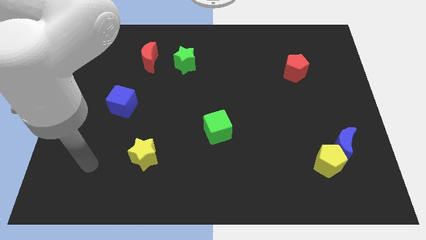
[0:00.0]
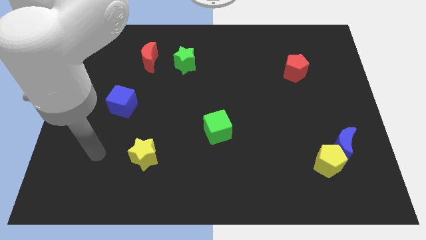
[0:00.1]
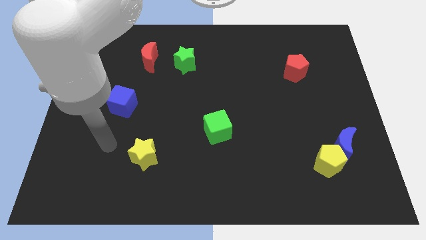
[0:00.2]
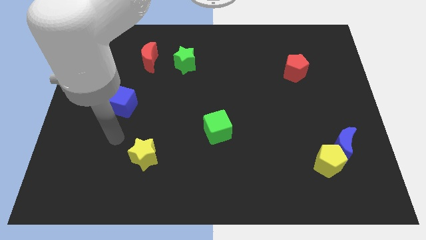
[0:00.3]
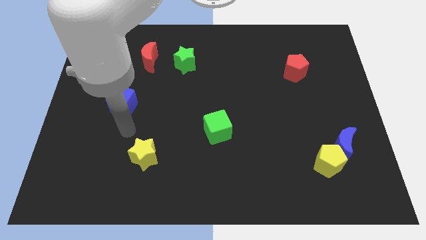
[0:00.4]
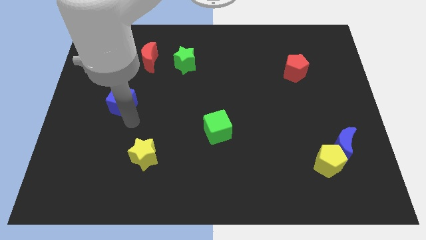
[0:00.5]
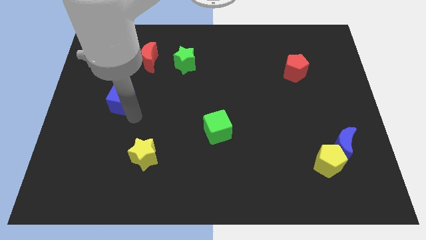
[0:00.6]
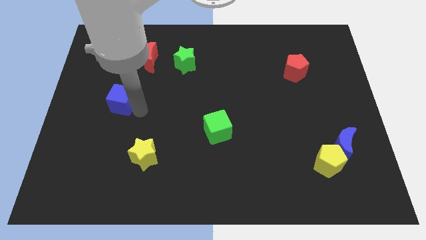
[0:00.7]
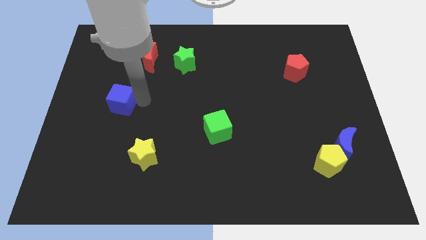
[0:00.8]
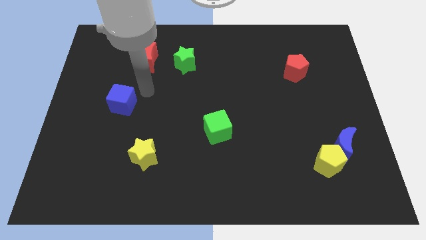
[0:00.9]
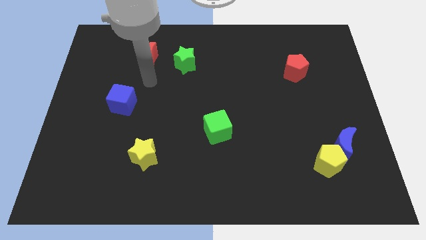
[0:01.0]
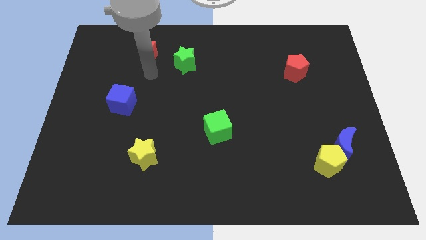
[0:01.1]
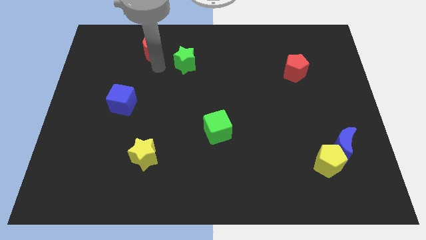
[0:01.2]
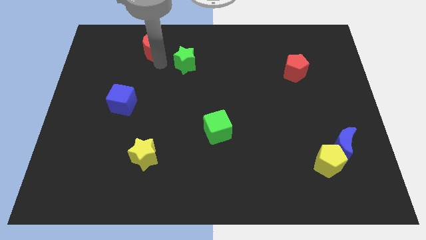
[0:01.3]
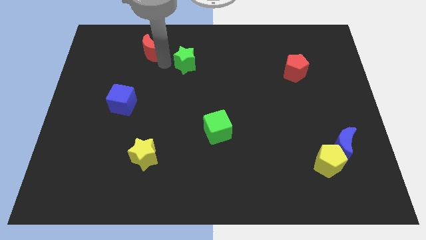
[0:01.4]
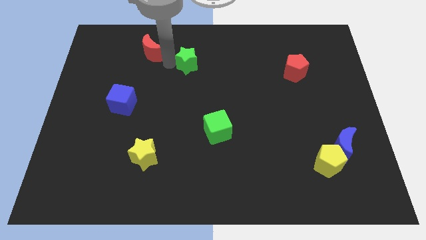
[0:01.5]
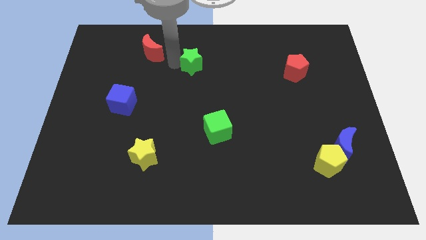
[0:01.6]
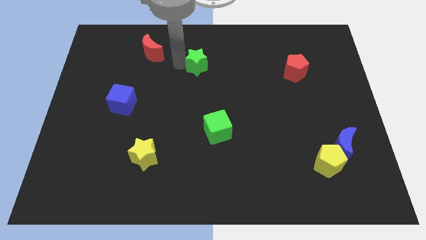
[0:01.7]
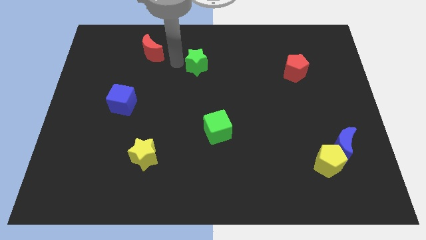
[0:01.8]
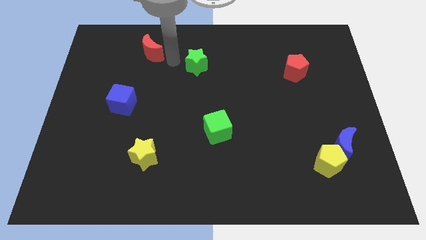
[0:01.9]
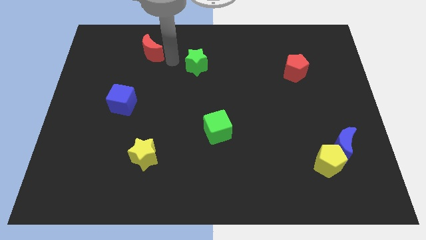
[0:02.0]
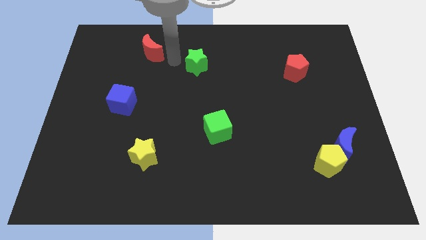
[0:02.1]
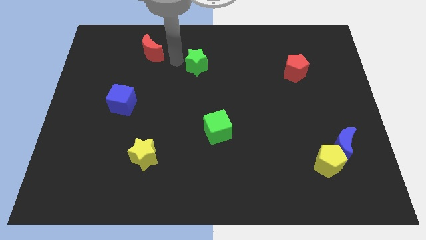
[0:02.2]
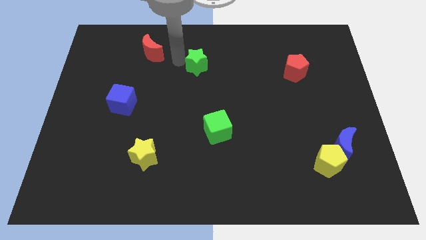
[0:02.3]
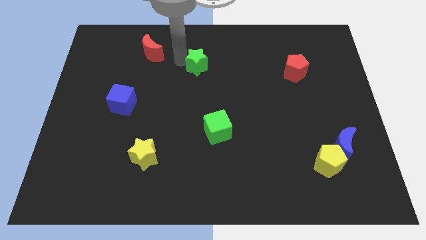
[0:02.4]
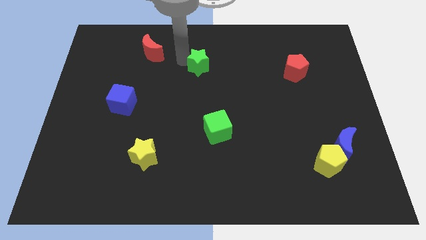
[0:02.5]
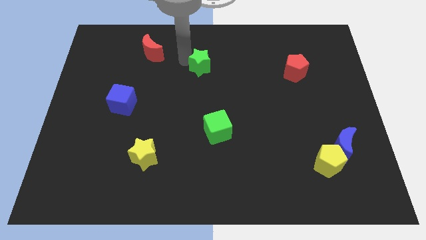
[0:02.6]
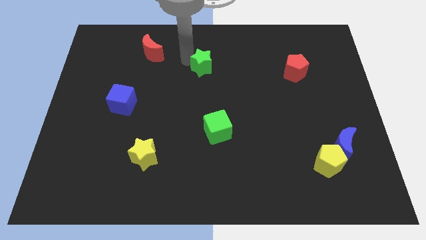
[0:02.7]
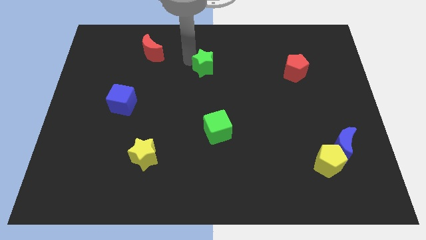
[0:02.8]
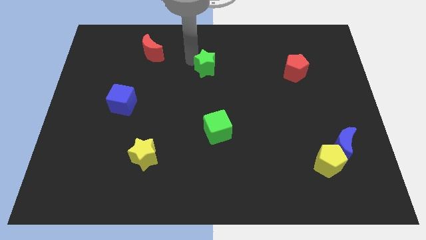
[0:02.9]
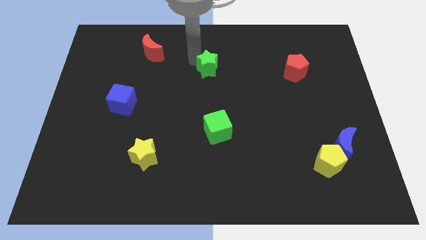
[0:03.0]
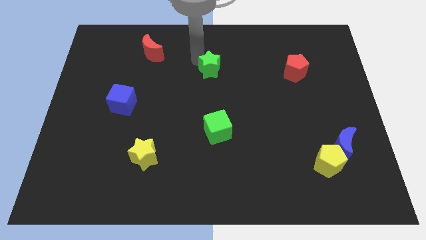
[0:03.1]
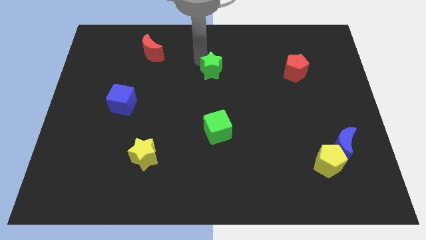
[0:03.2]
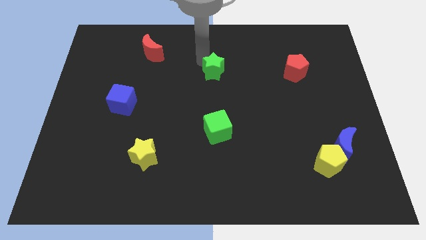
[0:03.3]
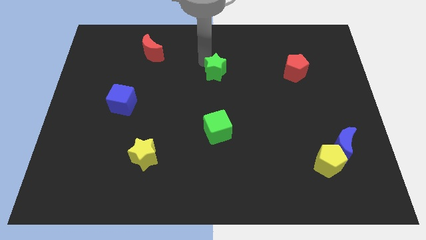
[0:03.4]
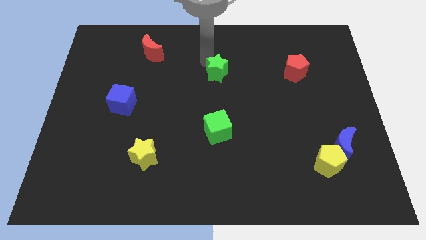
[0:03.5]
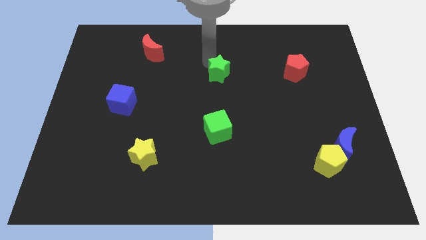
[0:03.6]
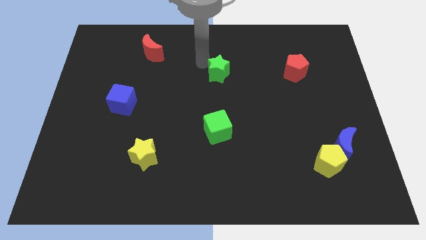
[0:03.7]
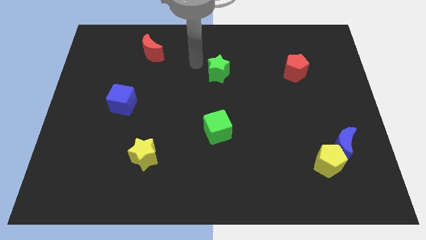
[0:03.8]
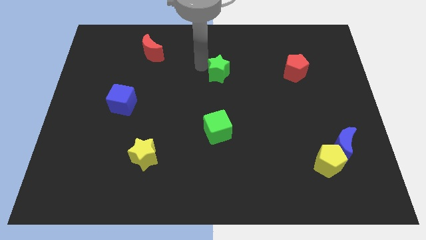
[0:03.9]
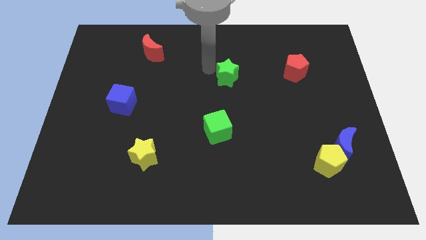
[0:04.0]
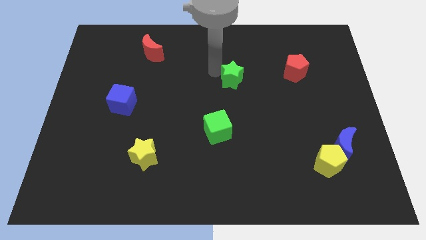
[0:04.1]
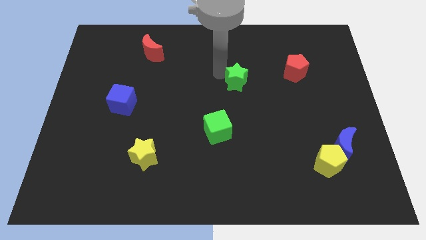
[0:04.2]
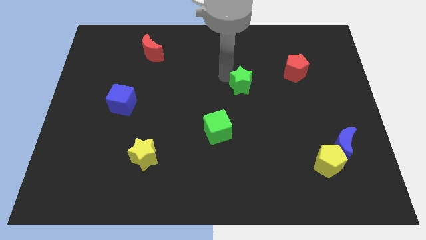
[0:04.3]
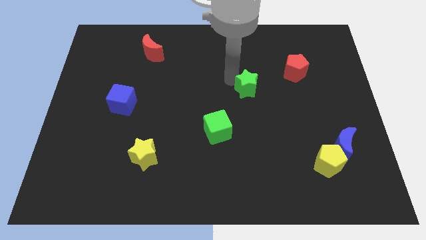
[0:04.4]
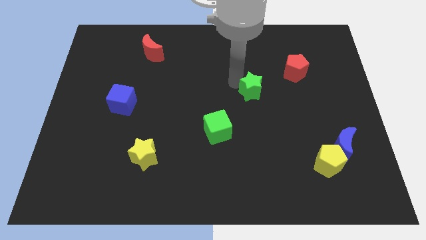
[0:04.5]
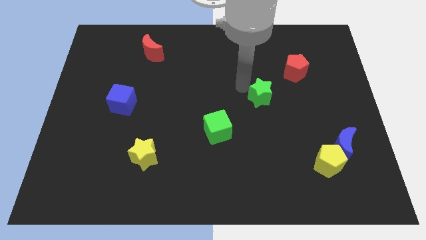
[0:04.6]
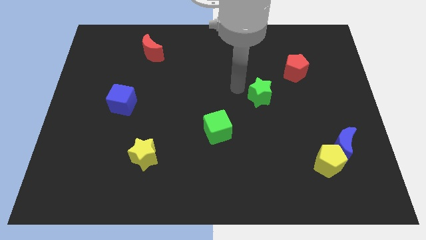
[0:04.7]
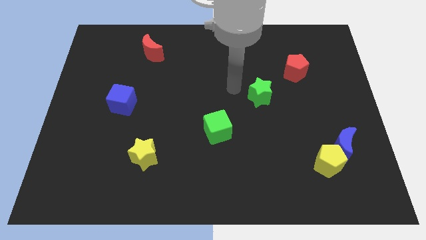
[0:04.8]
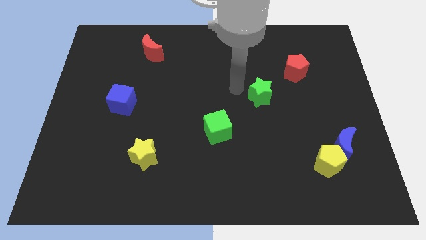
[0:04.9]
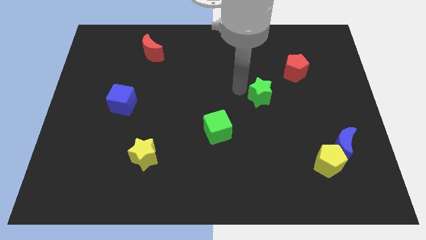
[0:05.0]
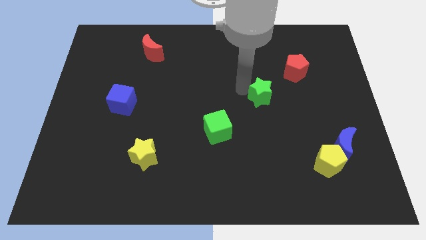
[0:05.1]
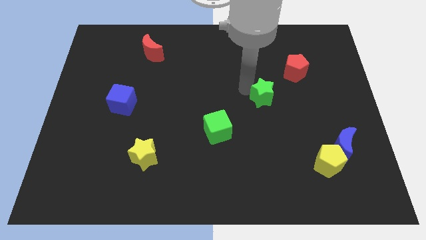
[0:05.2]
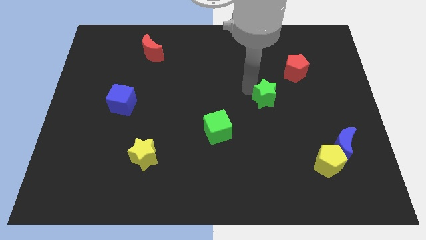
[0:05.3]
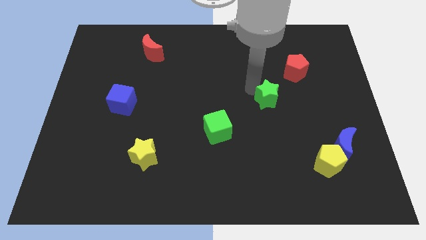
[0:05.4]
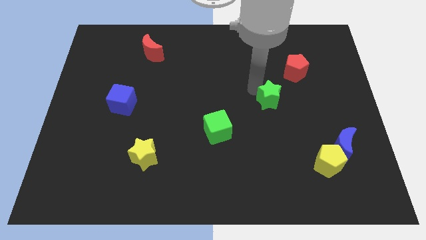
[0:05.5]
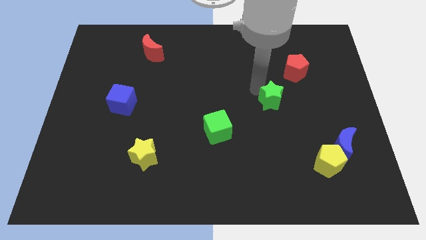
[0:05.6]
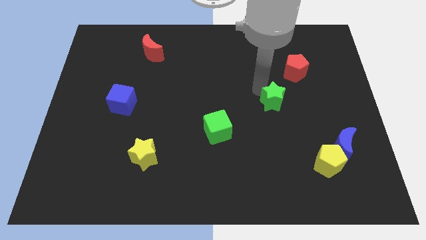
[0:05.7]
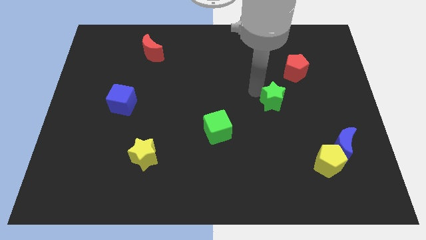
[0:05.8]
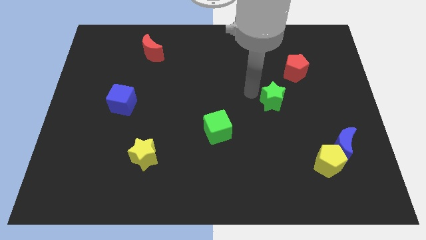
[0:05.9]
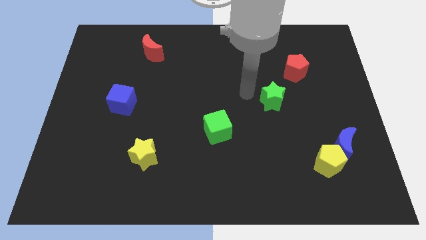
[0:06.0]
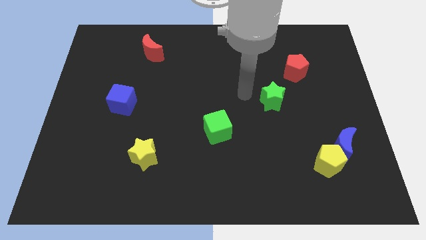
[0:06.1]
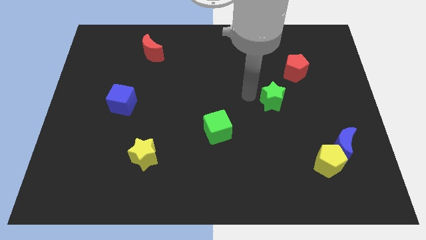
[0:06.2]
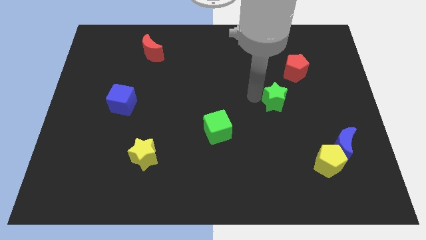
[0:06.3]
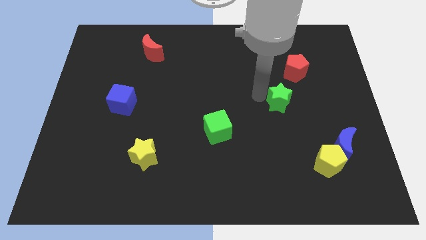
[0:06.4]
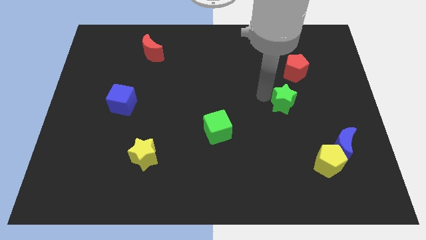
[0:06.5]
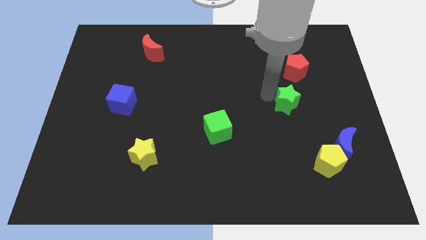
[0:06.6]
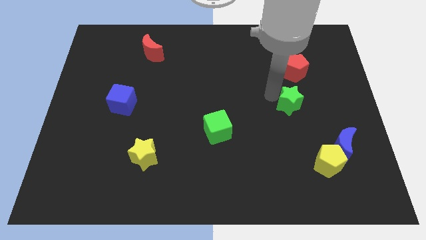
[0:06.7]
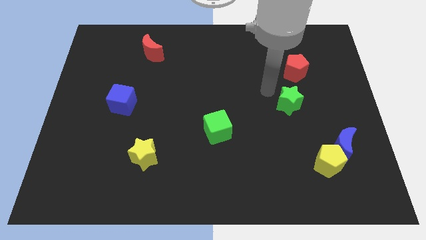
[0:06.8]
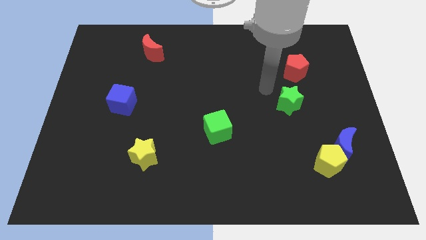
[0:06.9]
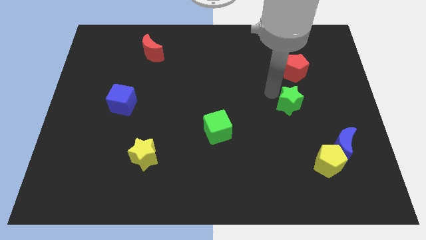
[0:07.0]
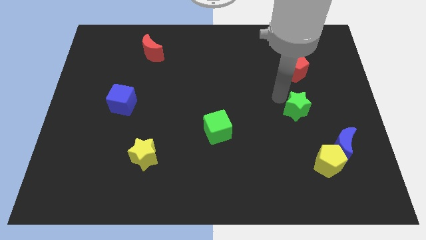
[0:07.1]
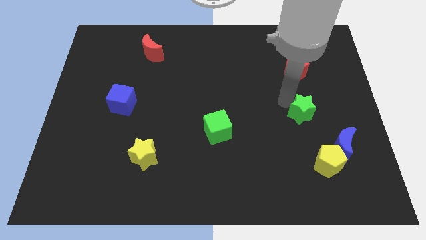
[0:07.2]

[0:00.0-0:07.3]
put the green star above the yellow pentagon
